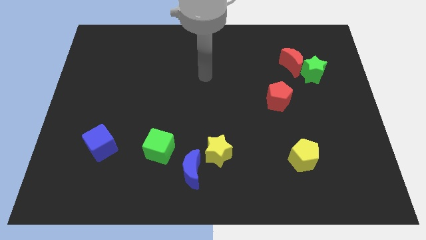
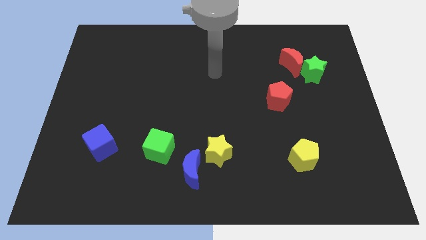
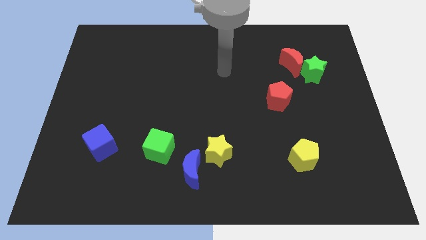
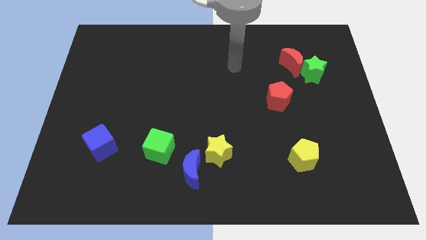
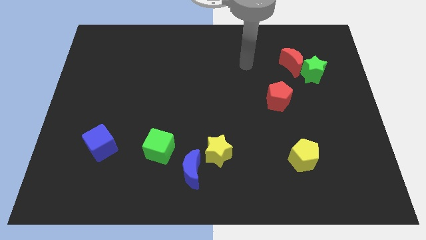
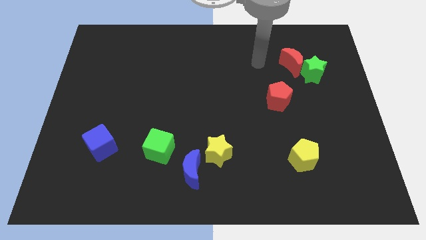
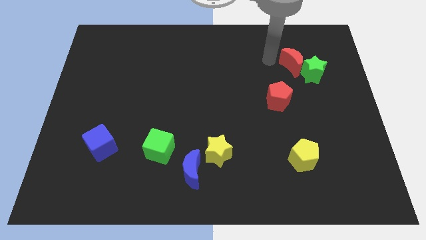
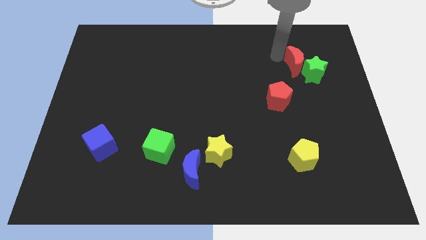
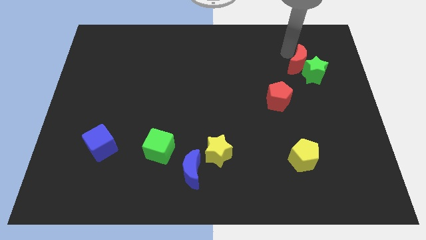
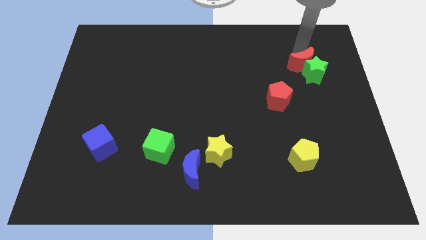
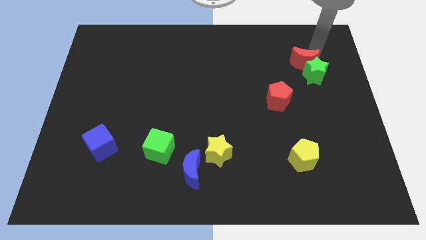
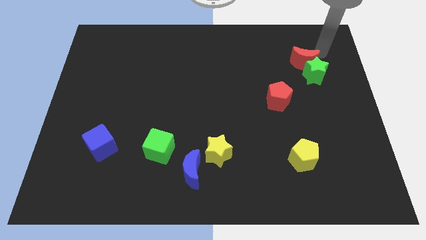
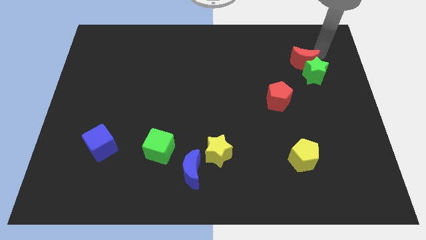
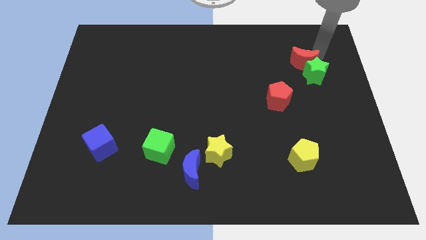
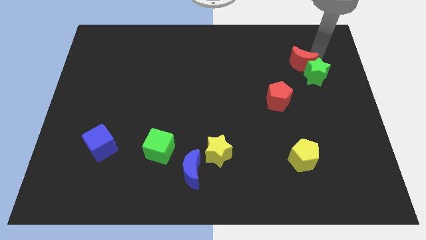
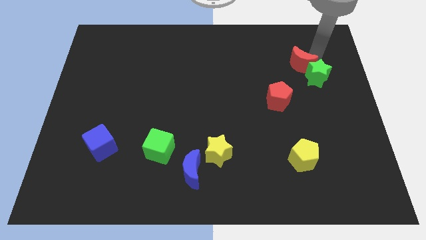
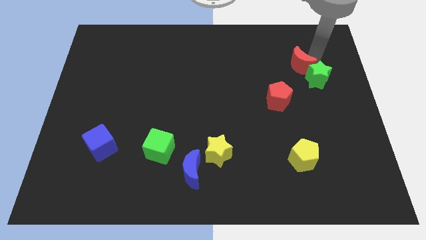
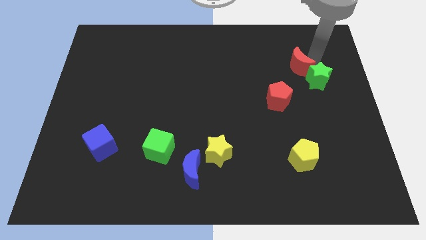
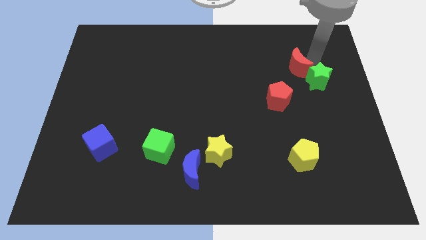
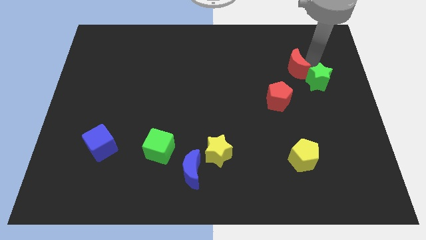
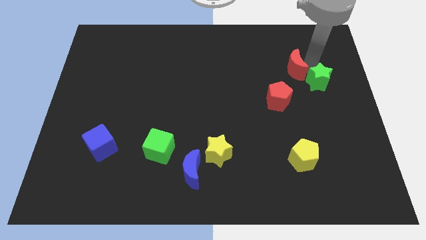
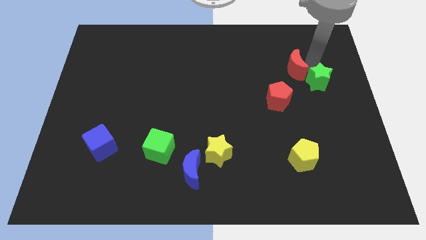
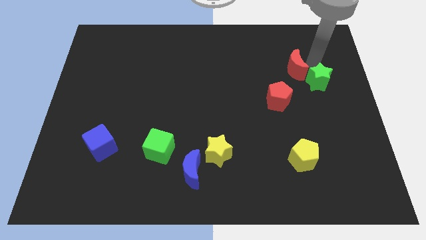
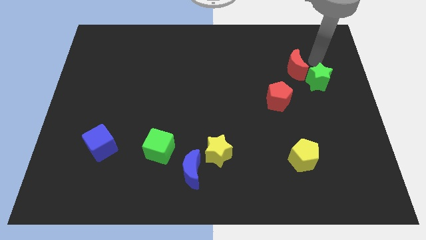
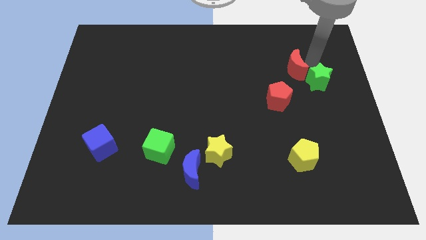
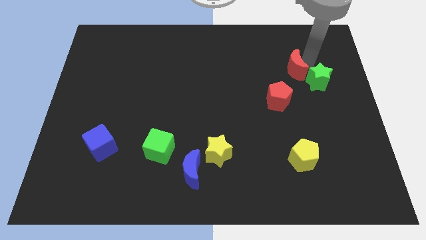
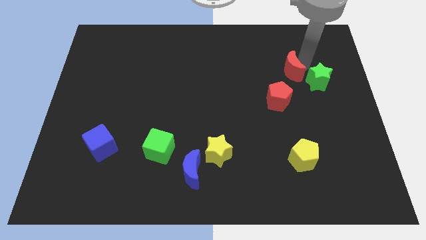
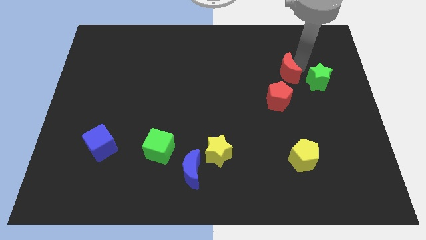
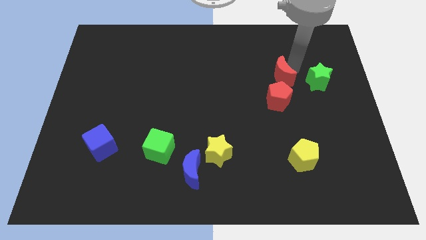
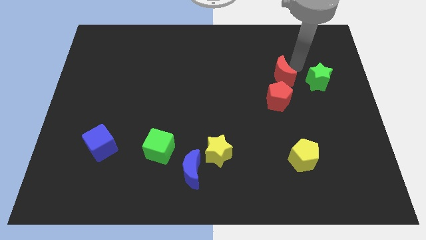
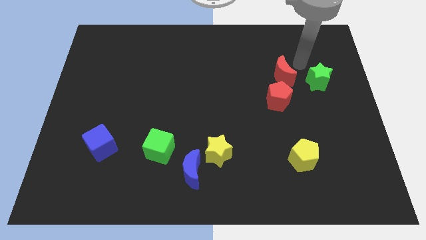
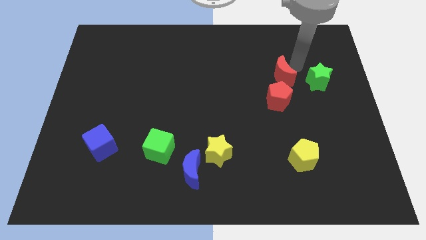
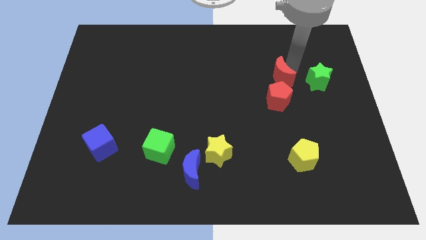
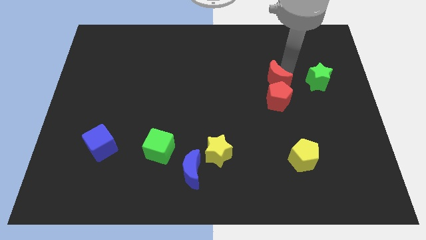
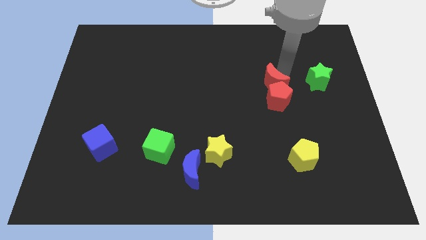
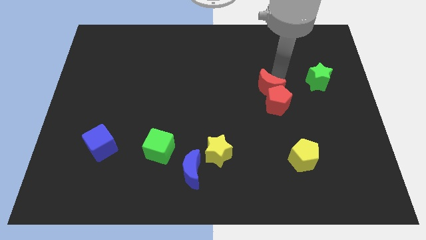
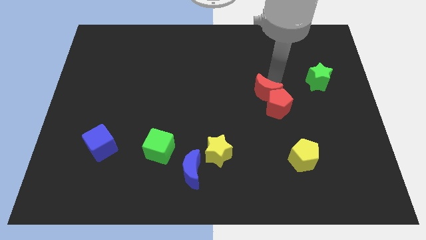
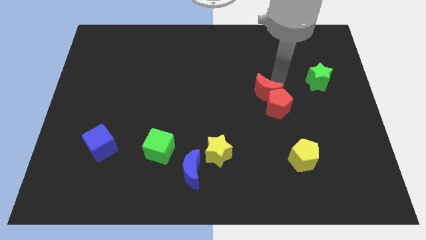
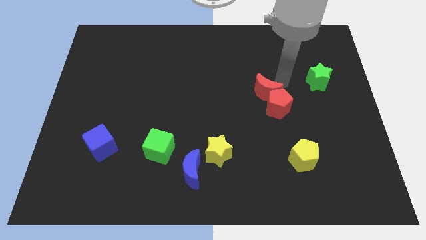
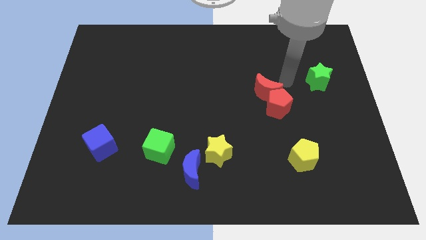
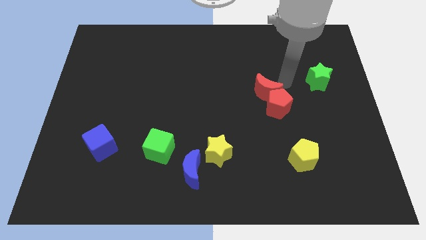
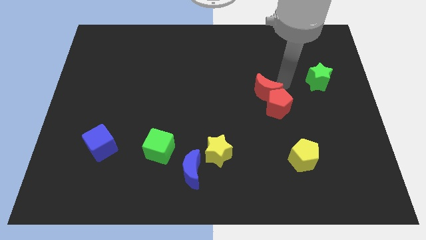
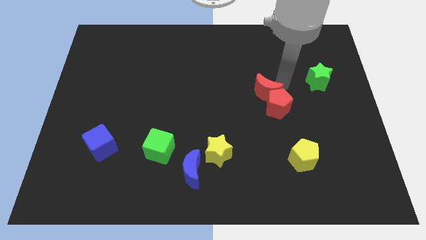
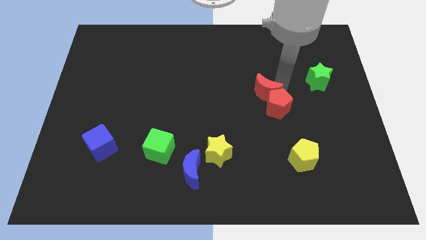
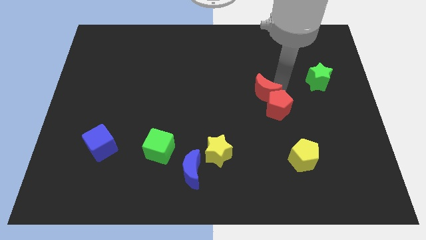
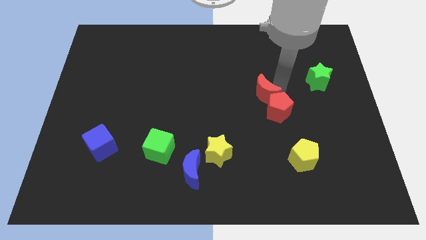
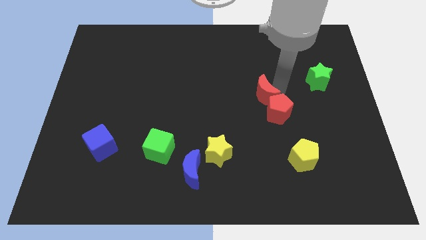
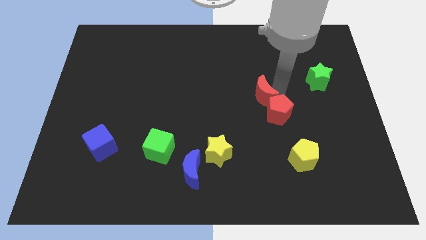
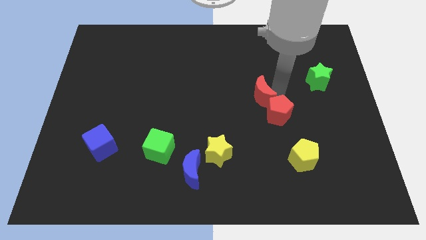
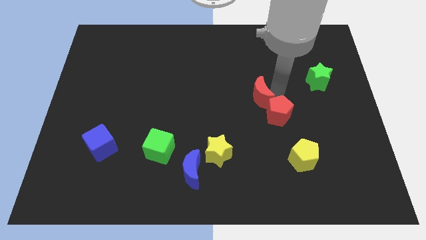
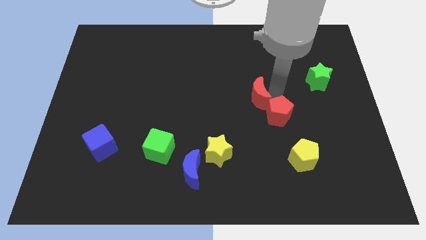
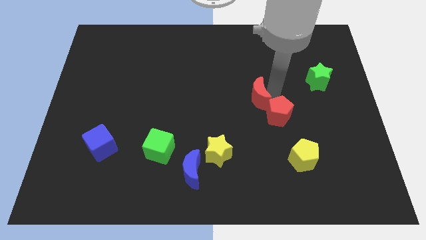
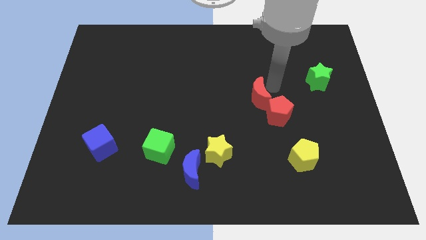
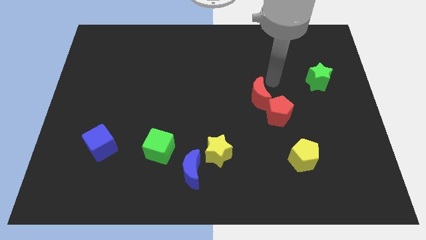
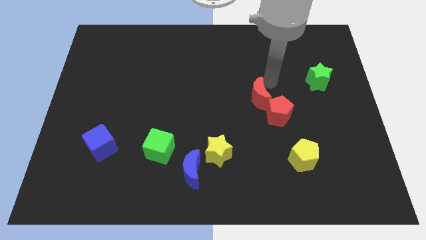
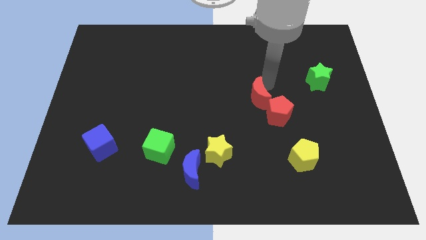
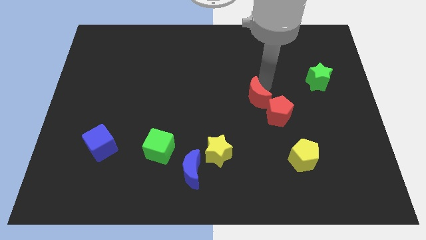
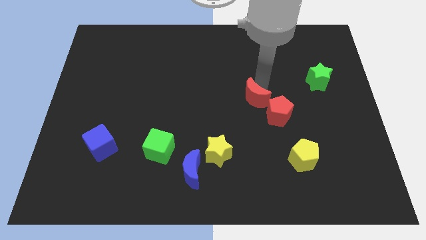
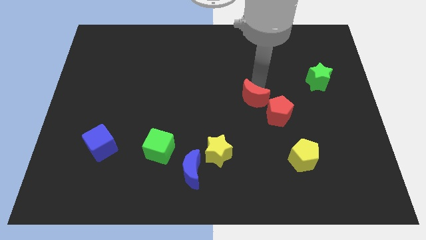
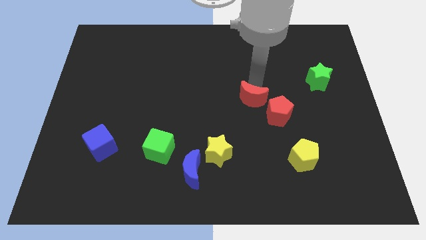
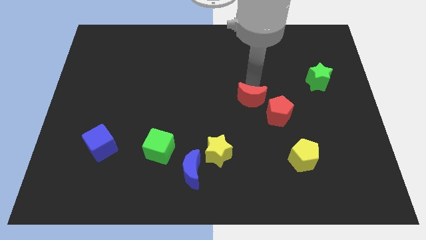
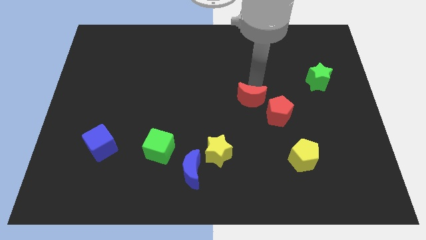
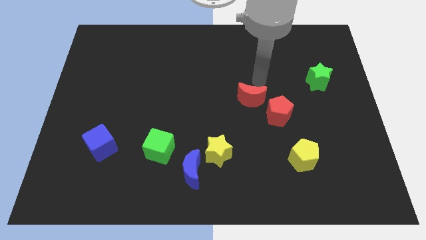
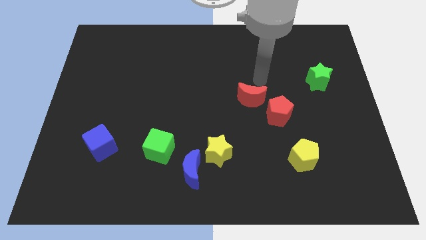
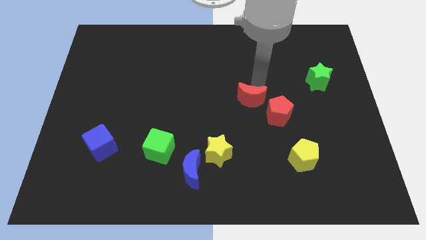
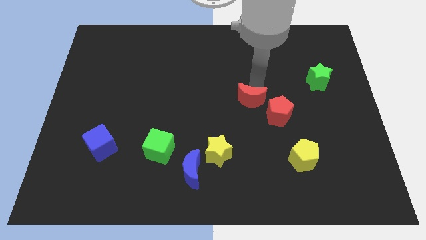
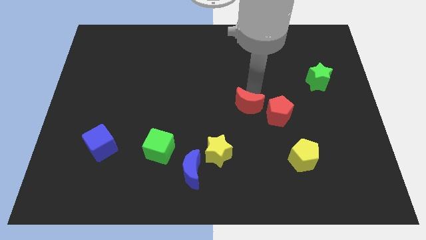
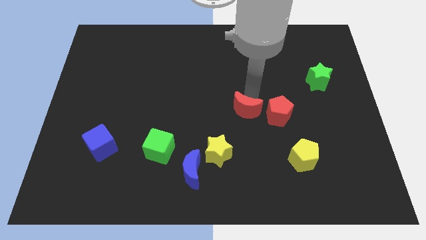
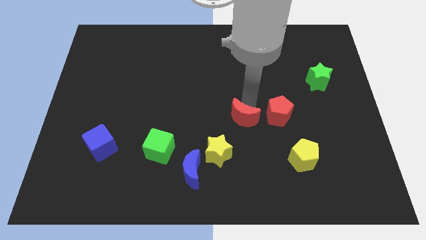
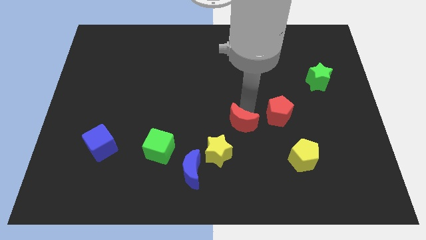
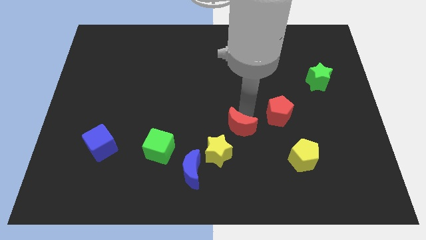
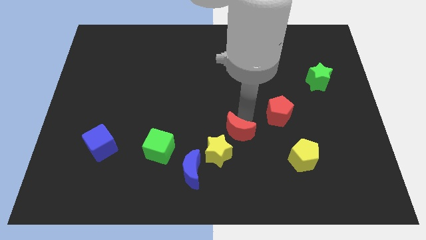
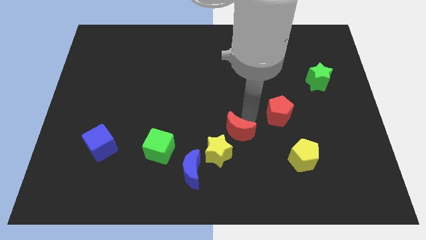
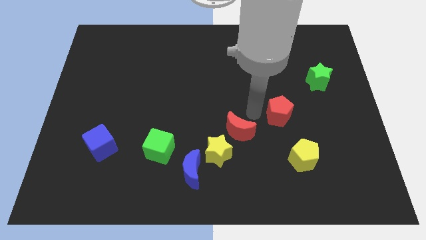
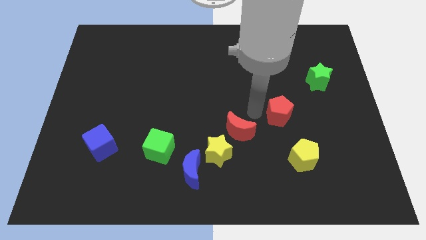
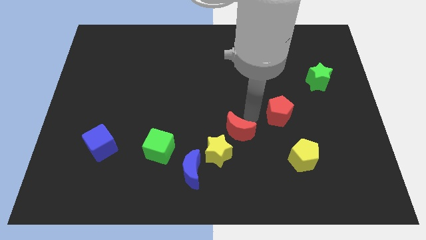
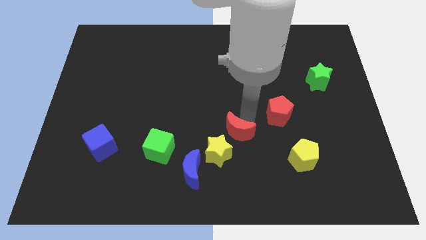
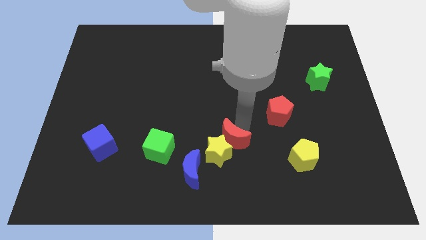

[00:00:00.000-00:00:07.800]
slide the red moon to the yellow star

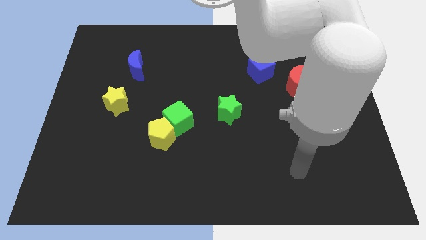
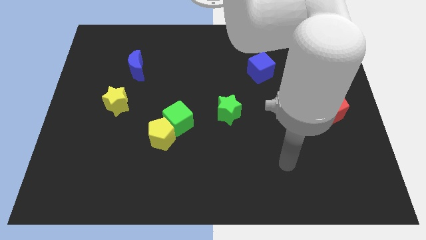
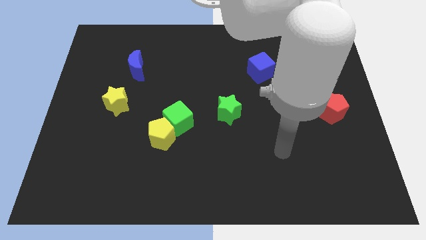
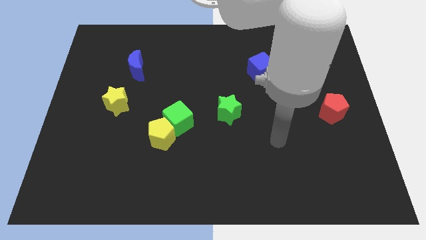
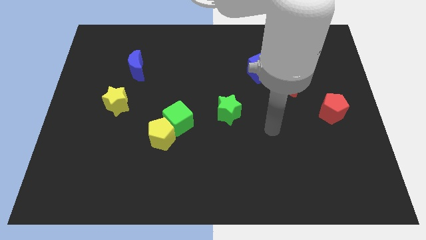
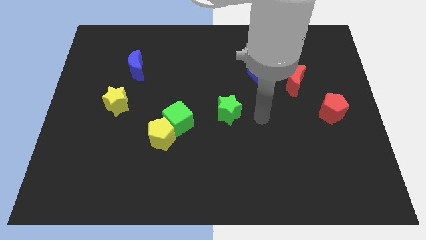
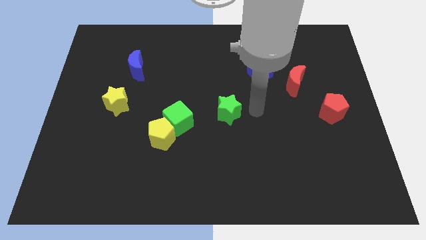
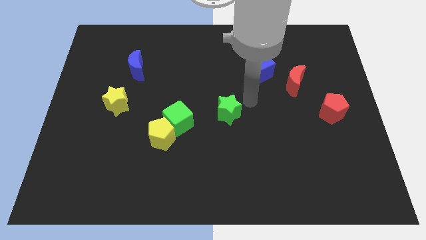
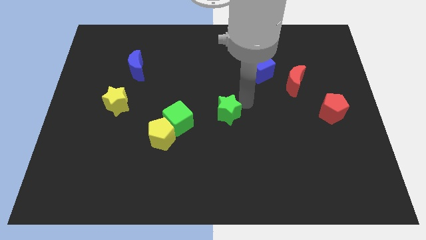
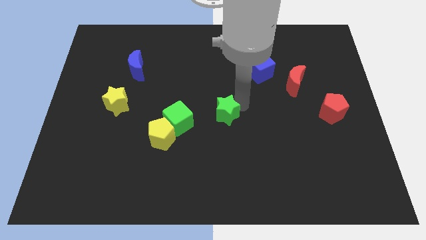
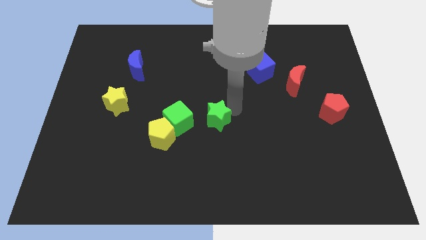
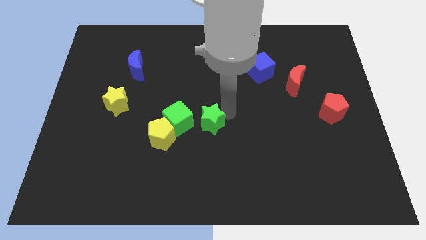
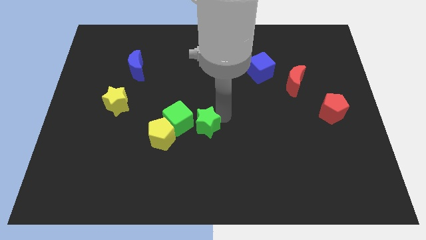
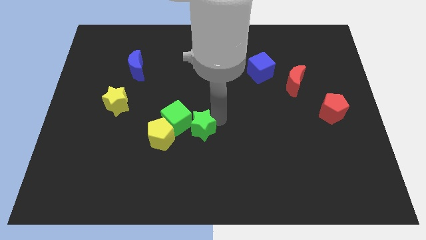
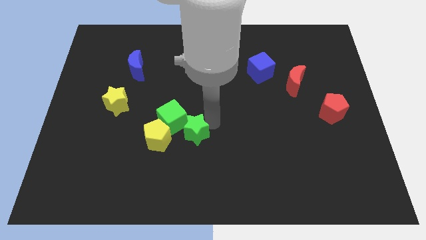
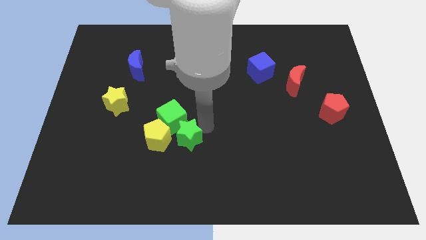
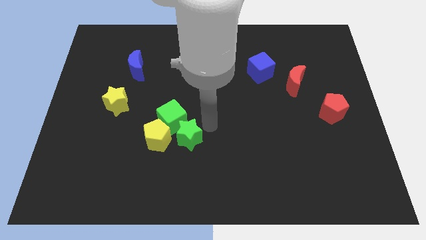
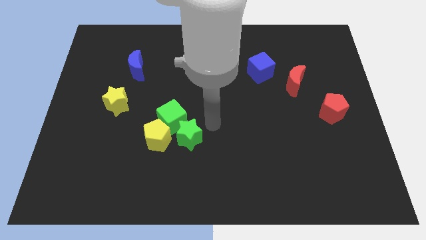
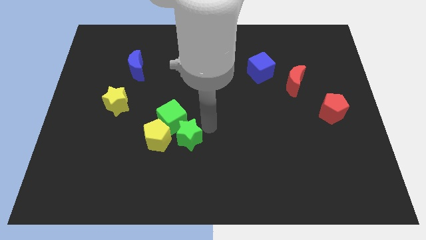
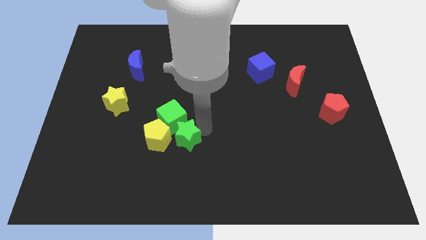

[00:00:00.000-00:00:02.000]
put the green star to the yellow pentagon
